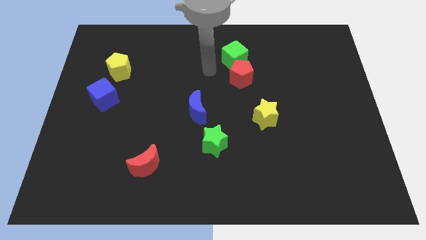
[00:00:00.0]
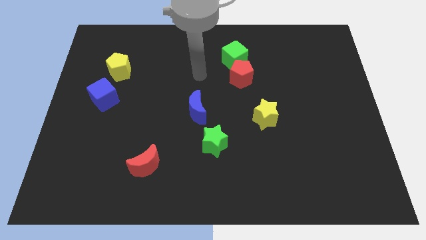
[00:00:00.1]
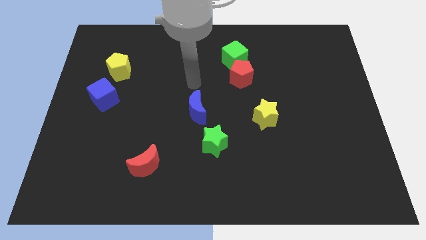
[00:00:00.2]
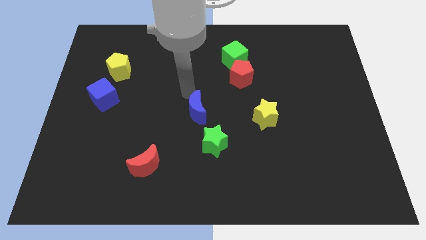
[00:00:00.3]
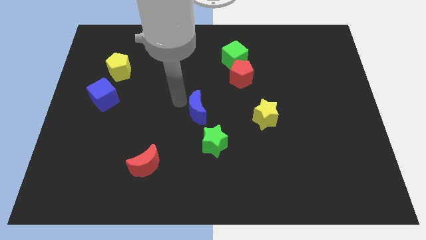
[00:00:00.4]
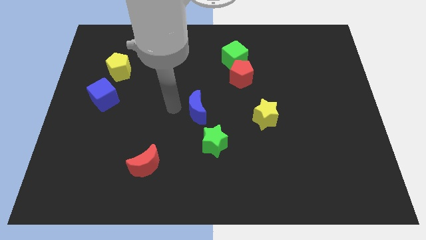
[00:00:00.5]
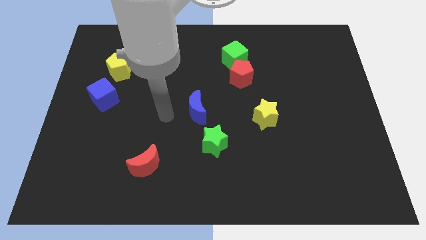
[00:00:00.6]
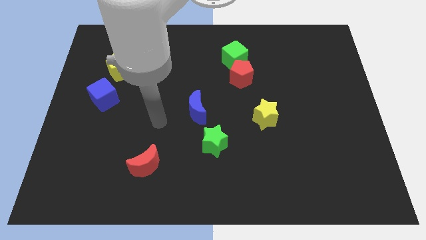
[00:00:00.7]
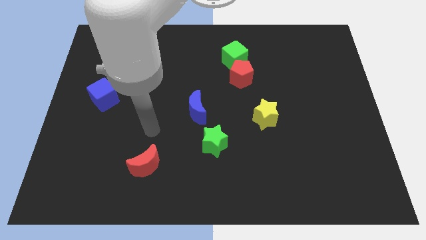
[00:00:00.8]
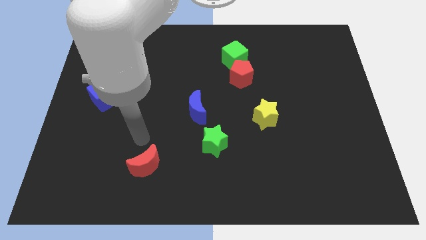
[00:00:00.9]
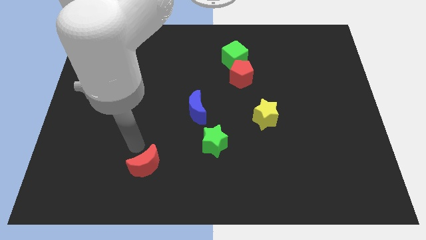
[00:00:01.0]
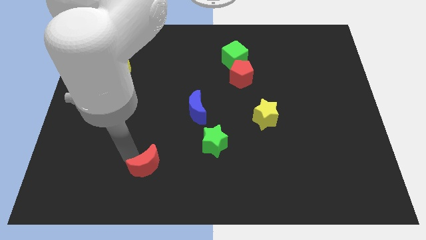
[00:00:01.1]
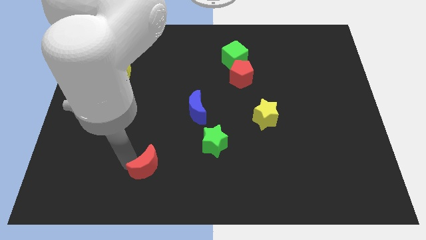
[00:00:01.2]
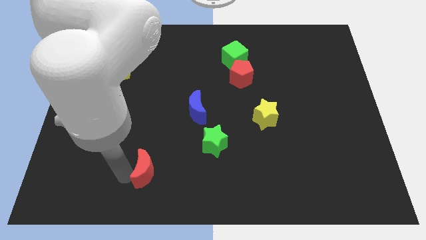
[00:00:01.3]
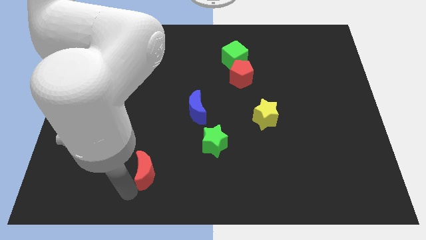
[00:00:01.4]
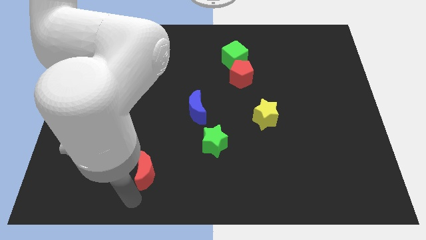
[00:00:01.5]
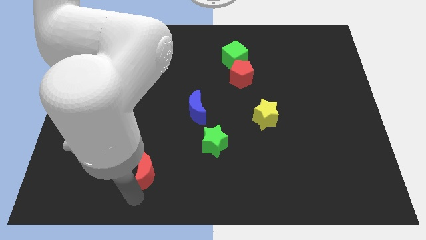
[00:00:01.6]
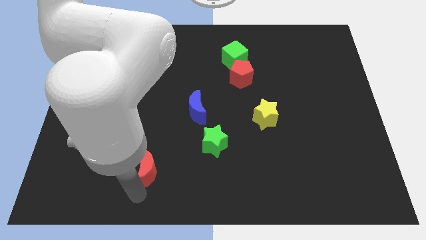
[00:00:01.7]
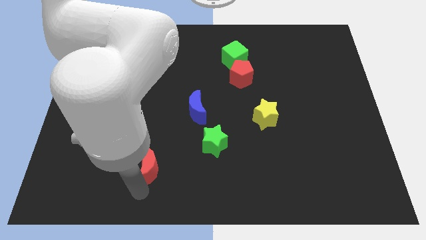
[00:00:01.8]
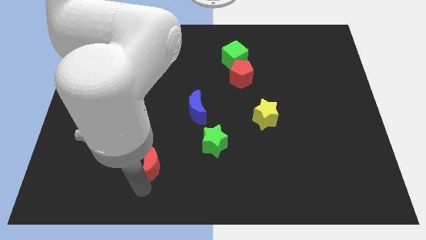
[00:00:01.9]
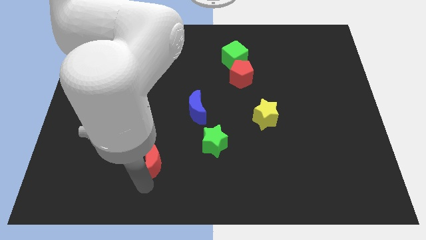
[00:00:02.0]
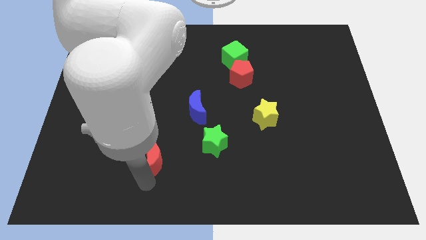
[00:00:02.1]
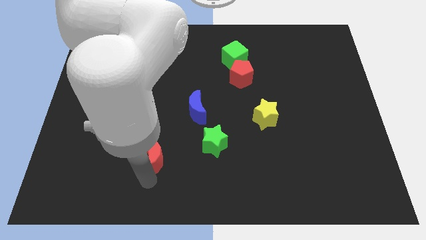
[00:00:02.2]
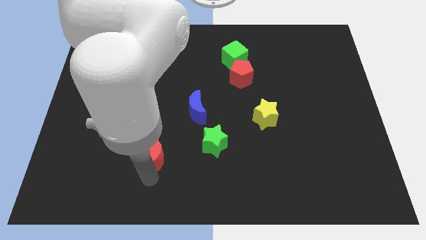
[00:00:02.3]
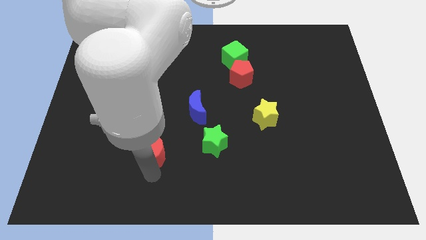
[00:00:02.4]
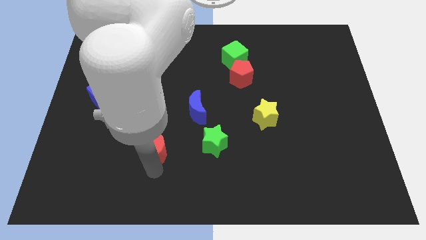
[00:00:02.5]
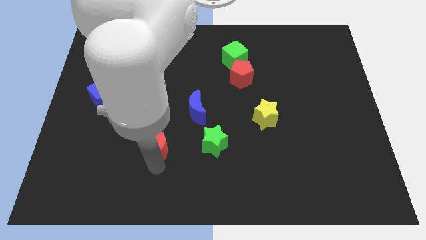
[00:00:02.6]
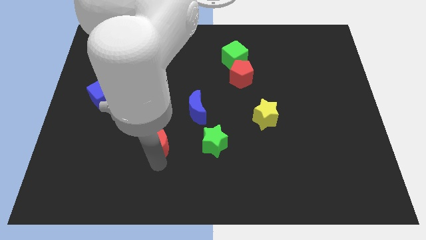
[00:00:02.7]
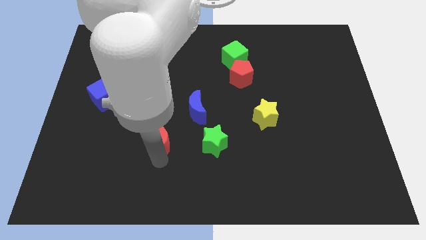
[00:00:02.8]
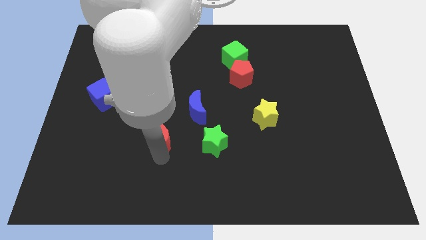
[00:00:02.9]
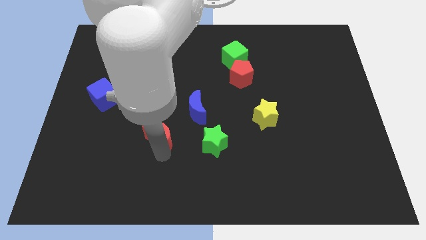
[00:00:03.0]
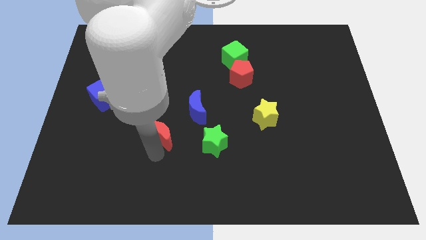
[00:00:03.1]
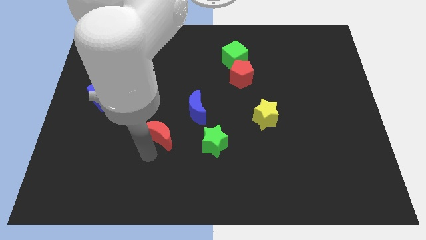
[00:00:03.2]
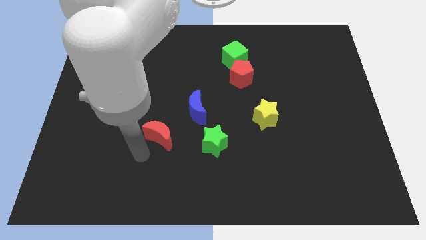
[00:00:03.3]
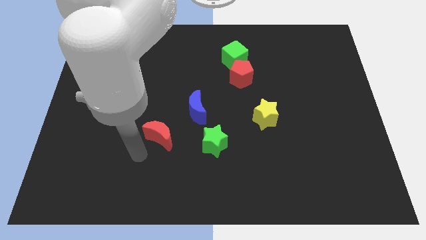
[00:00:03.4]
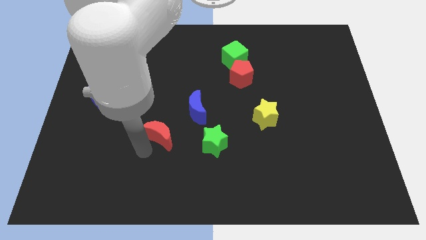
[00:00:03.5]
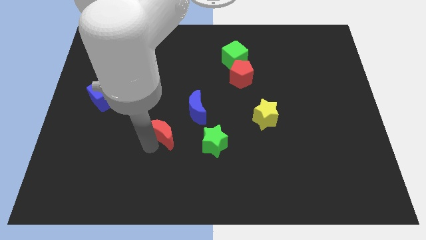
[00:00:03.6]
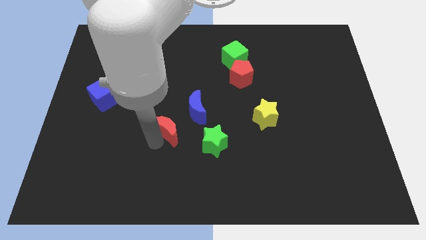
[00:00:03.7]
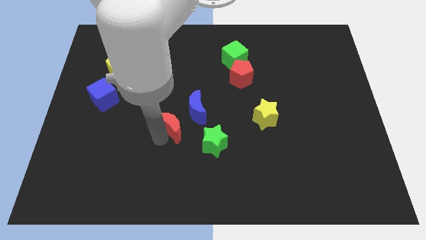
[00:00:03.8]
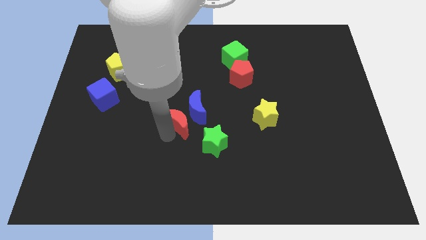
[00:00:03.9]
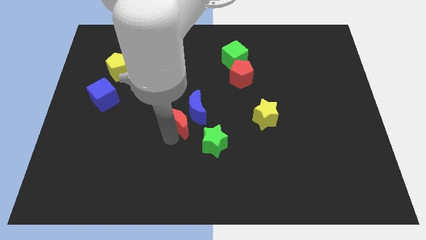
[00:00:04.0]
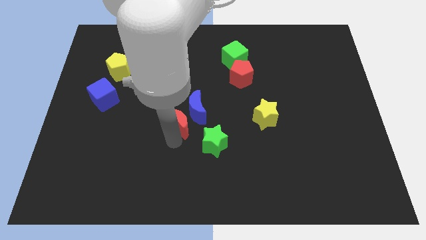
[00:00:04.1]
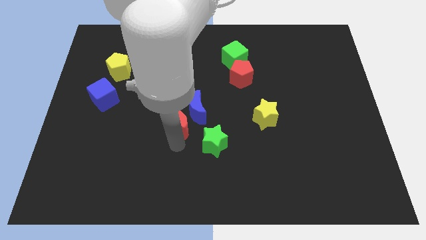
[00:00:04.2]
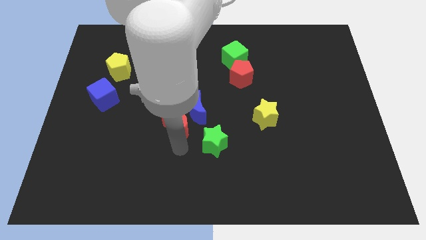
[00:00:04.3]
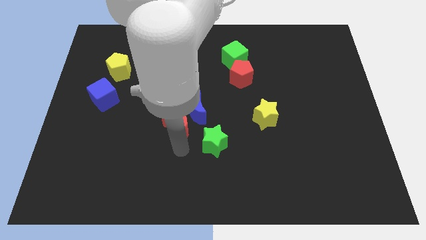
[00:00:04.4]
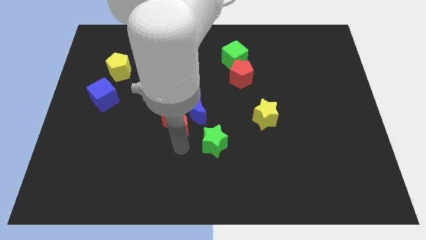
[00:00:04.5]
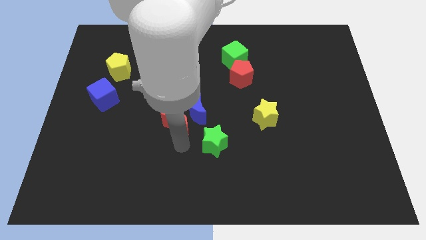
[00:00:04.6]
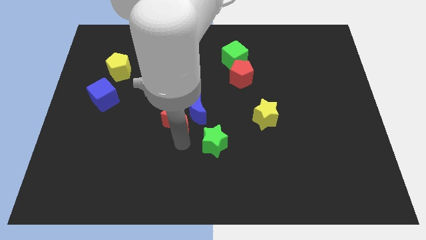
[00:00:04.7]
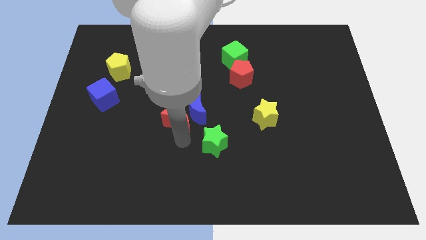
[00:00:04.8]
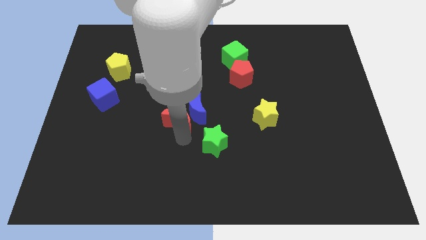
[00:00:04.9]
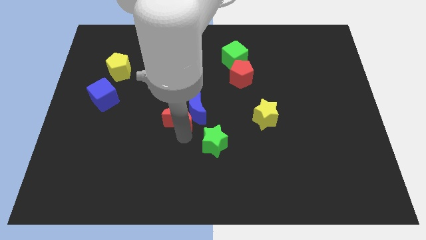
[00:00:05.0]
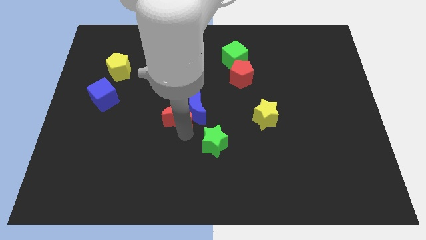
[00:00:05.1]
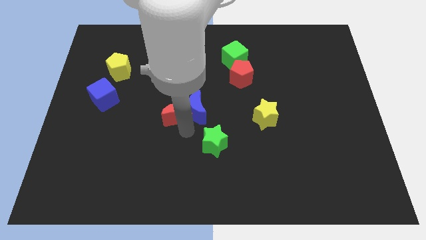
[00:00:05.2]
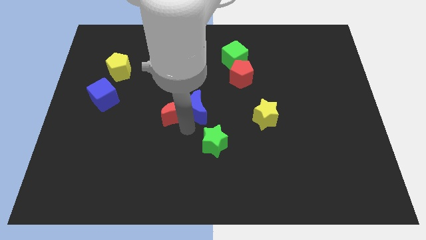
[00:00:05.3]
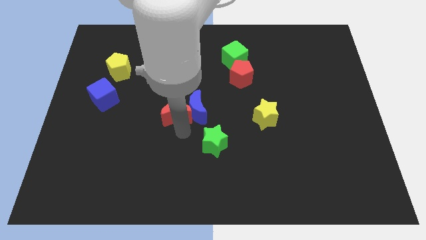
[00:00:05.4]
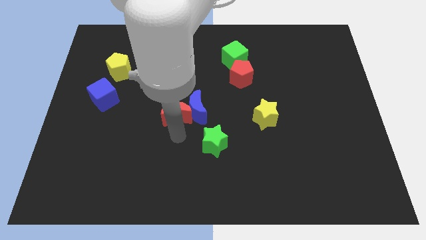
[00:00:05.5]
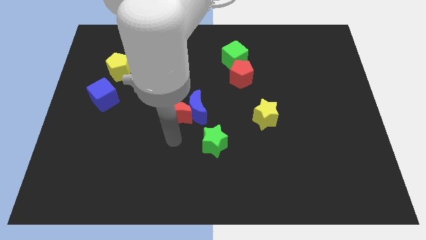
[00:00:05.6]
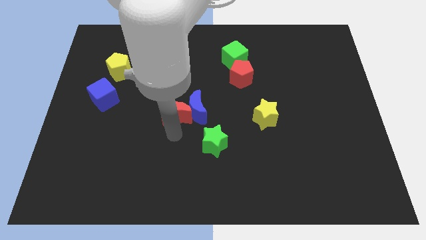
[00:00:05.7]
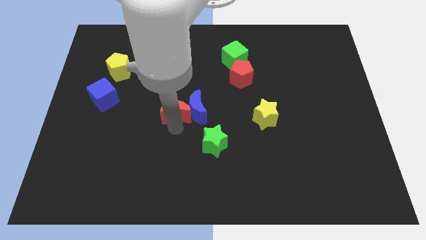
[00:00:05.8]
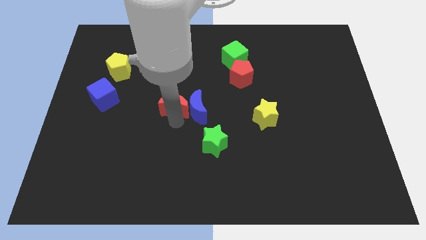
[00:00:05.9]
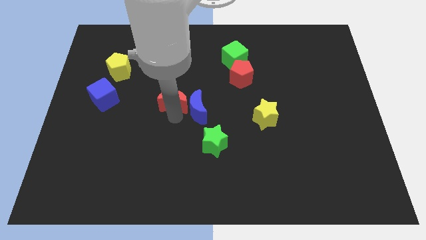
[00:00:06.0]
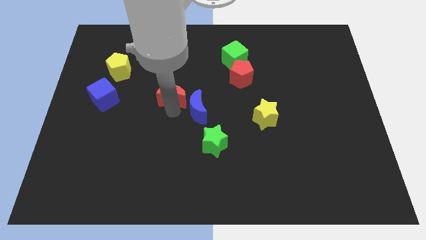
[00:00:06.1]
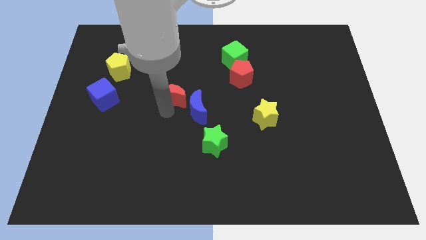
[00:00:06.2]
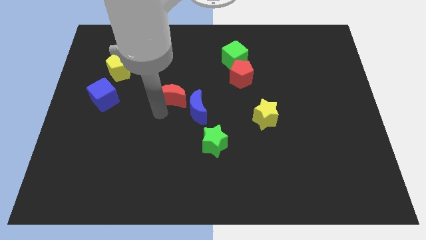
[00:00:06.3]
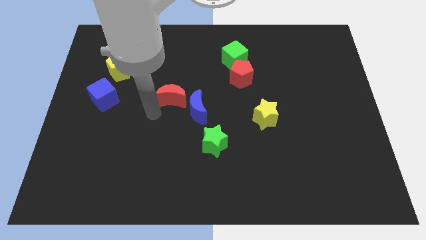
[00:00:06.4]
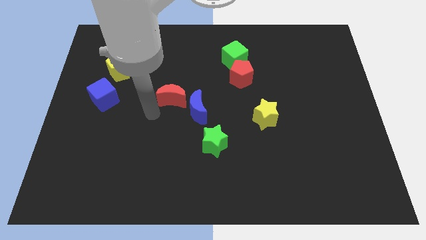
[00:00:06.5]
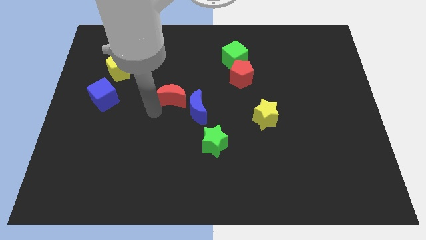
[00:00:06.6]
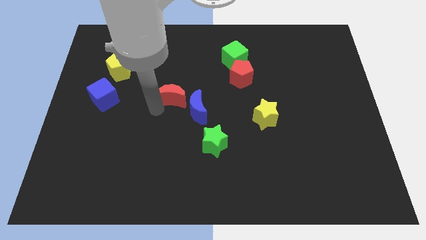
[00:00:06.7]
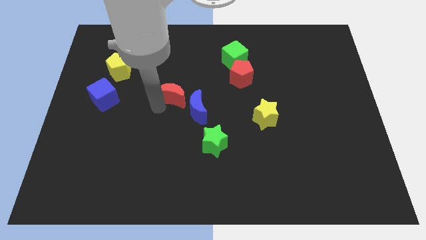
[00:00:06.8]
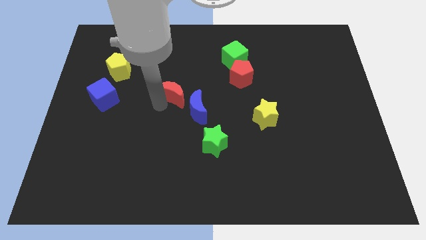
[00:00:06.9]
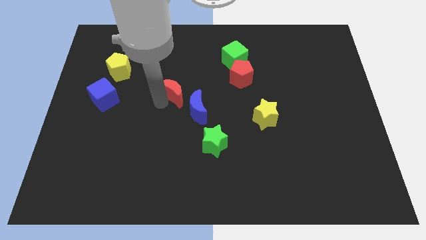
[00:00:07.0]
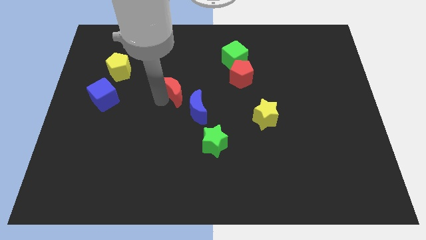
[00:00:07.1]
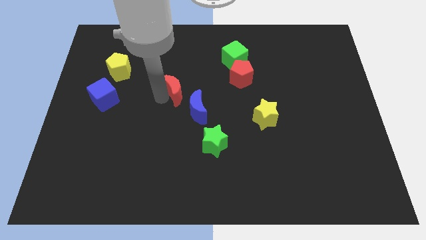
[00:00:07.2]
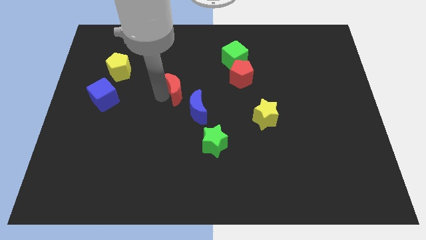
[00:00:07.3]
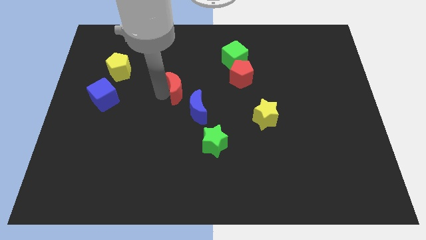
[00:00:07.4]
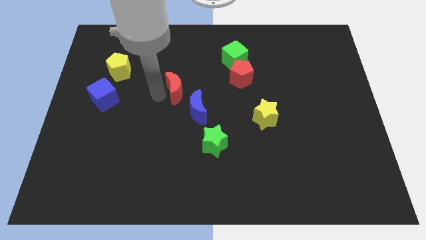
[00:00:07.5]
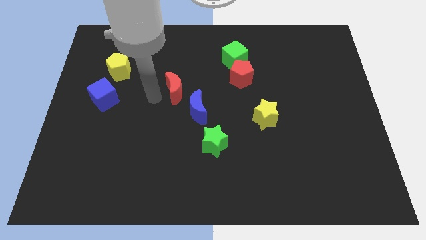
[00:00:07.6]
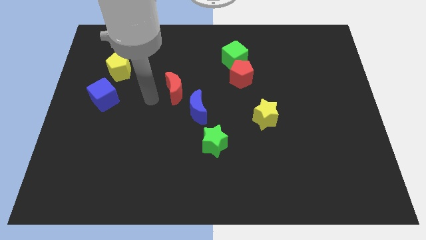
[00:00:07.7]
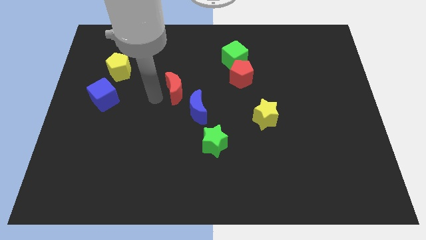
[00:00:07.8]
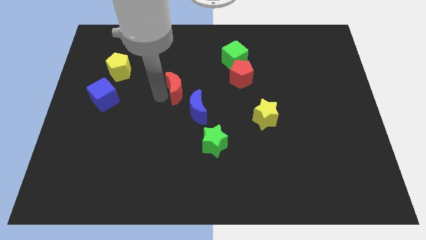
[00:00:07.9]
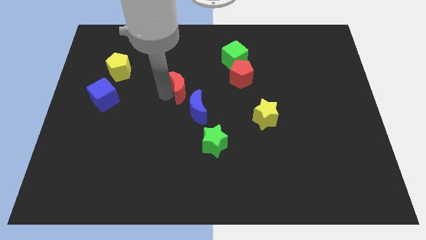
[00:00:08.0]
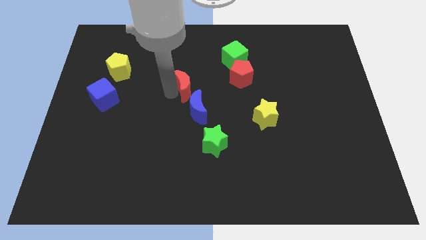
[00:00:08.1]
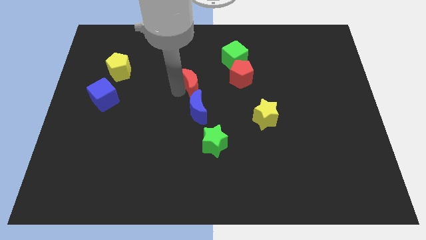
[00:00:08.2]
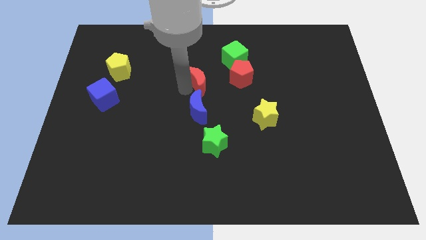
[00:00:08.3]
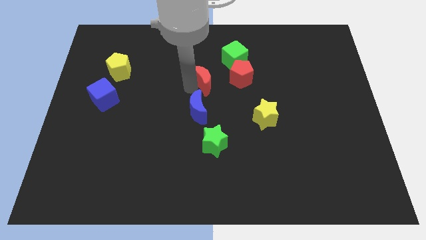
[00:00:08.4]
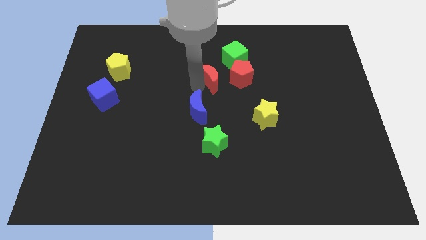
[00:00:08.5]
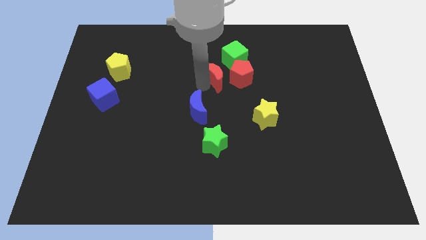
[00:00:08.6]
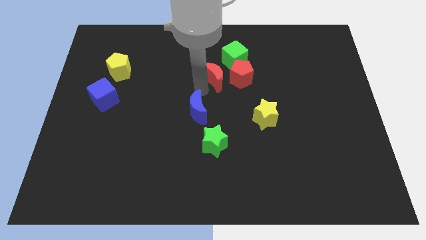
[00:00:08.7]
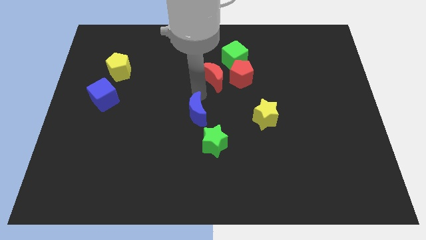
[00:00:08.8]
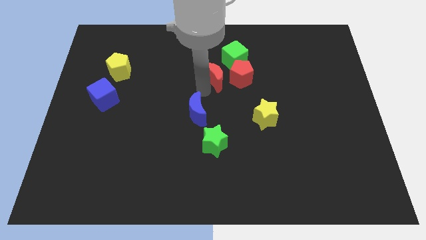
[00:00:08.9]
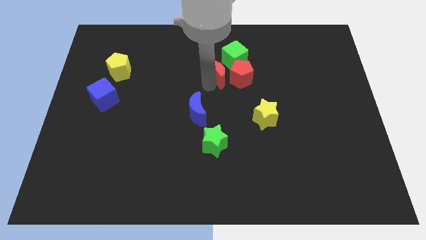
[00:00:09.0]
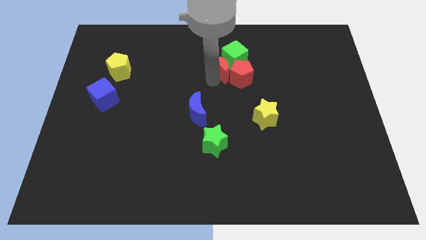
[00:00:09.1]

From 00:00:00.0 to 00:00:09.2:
put the red moon towards the green cube
